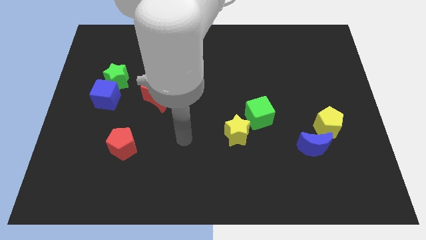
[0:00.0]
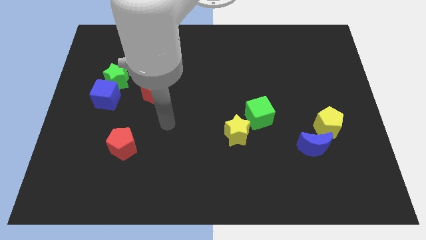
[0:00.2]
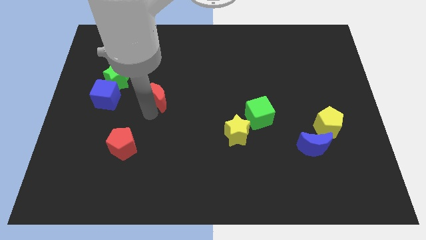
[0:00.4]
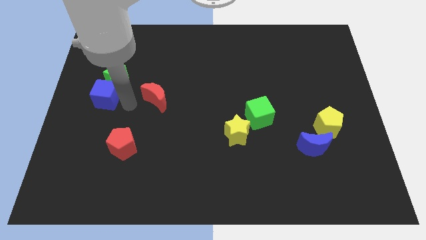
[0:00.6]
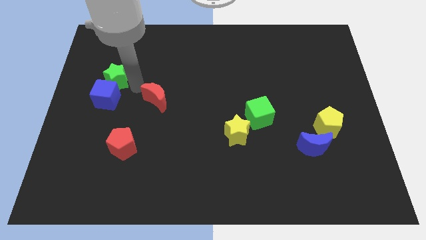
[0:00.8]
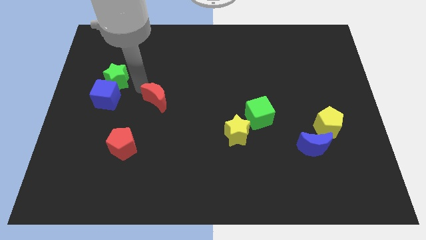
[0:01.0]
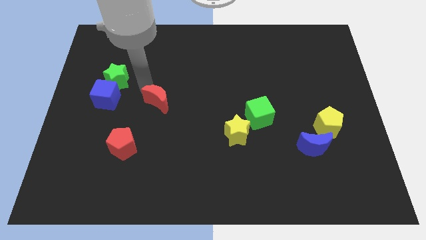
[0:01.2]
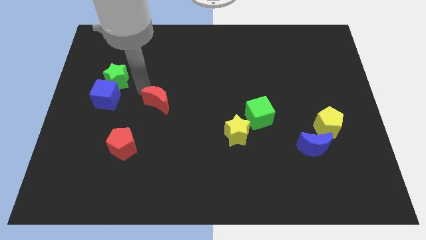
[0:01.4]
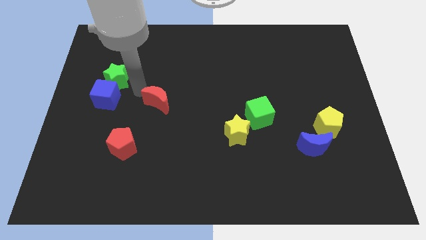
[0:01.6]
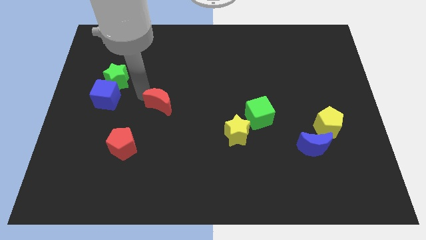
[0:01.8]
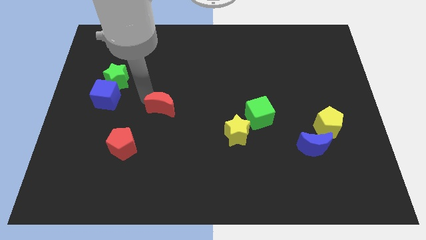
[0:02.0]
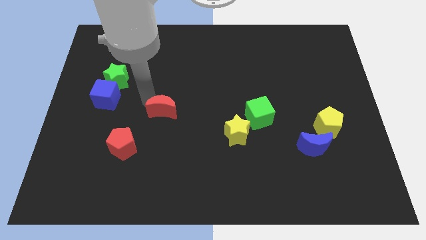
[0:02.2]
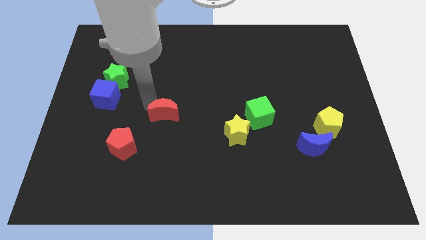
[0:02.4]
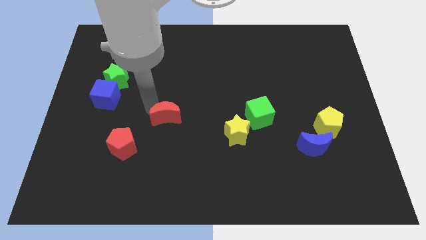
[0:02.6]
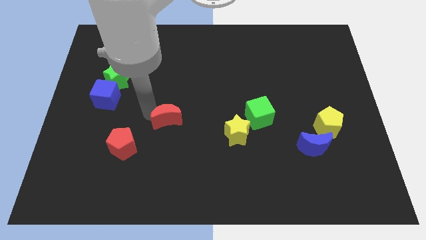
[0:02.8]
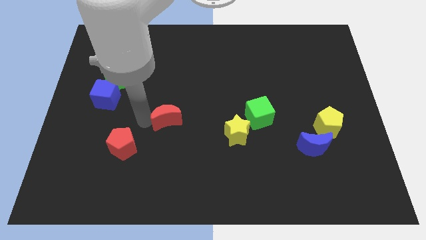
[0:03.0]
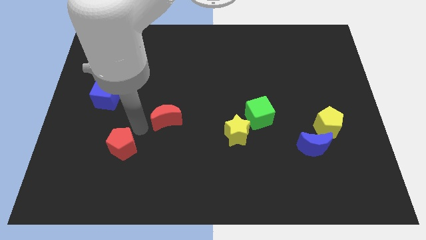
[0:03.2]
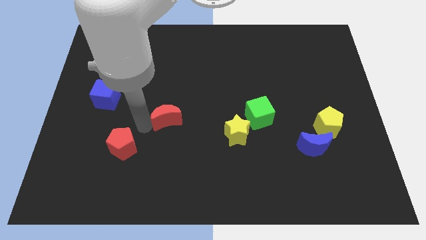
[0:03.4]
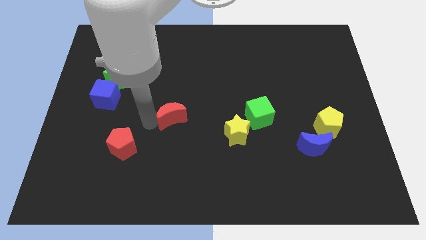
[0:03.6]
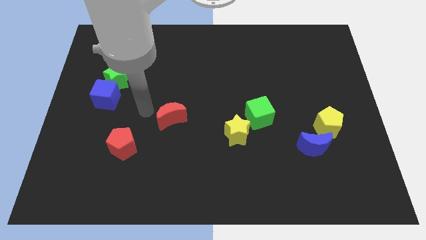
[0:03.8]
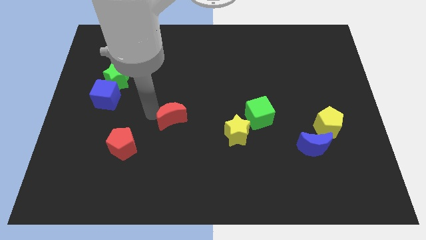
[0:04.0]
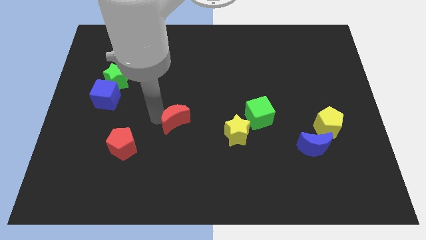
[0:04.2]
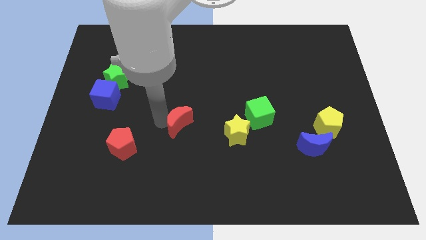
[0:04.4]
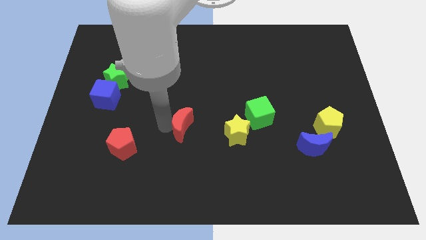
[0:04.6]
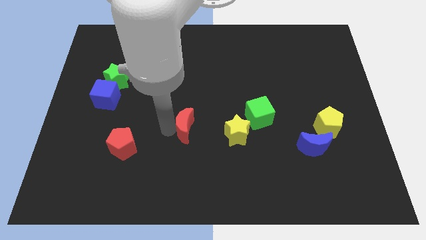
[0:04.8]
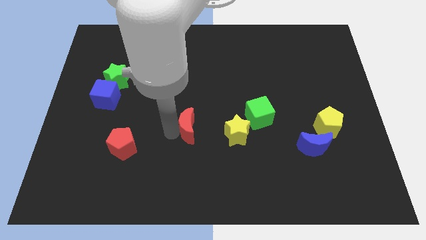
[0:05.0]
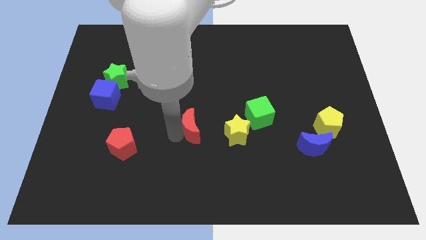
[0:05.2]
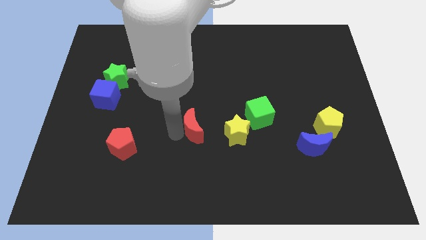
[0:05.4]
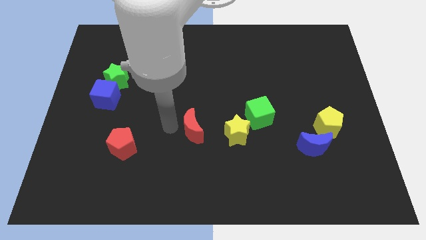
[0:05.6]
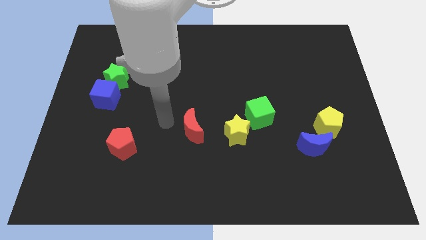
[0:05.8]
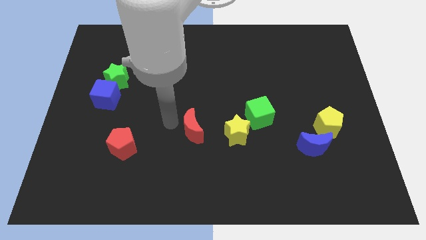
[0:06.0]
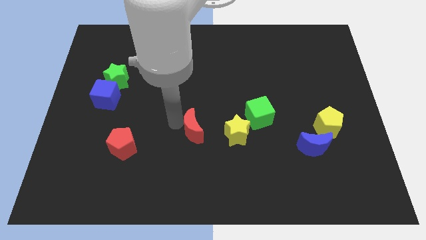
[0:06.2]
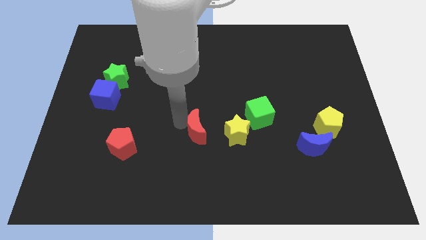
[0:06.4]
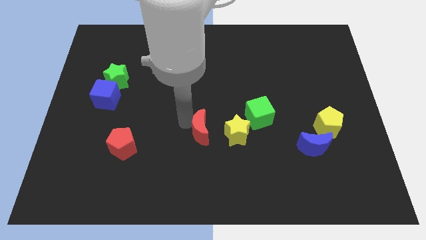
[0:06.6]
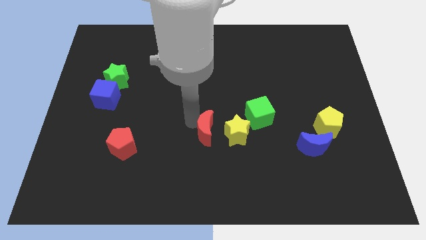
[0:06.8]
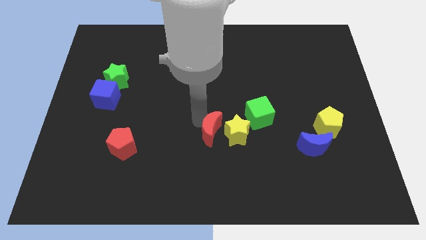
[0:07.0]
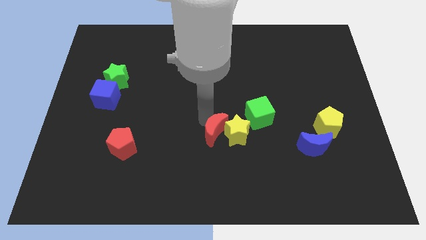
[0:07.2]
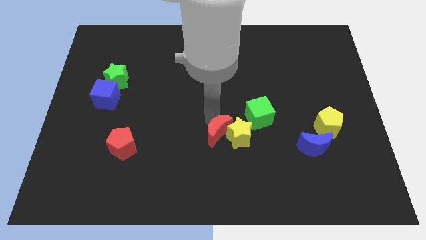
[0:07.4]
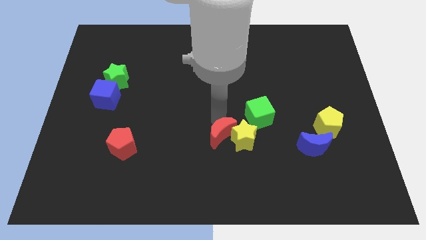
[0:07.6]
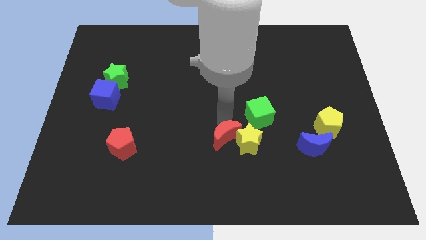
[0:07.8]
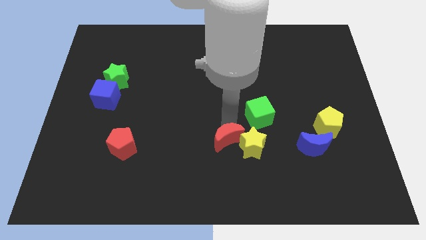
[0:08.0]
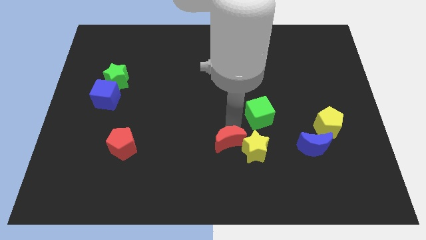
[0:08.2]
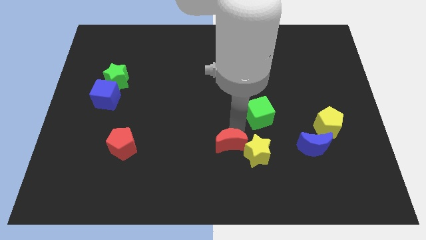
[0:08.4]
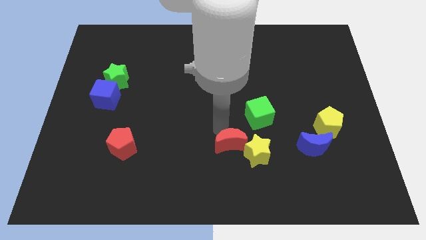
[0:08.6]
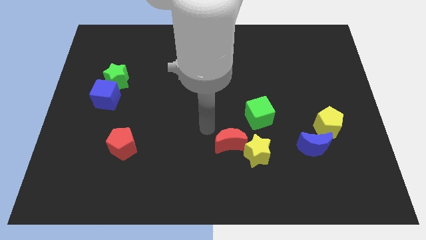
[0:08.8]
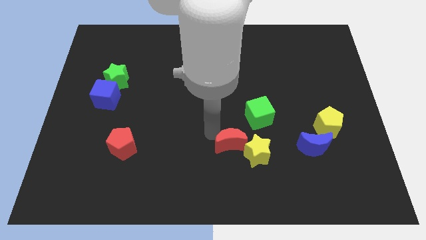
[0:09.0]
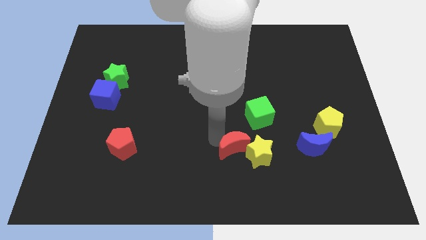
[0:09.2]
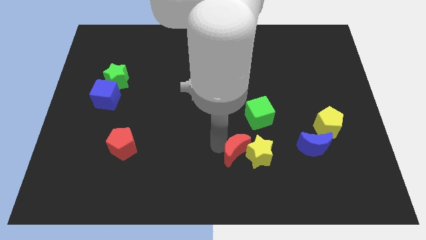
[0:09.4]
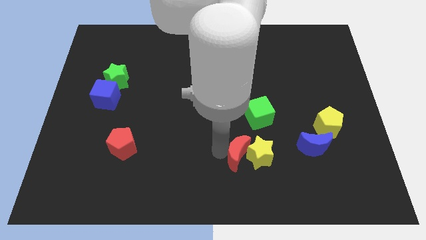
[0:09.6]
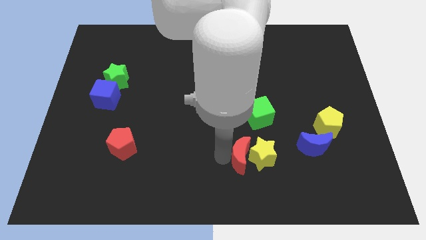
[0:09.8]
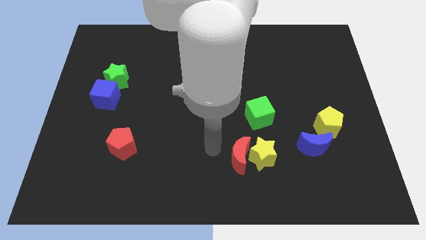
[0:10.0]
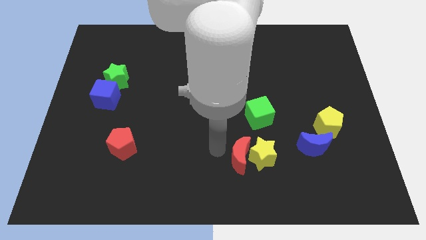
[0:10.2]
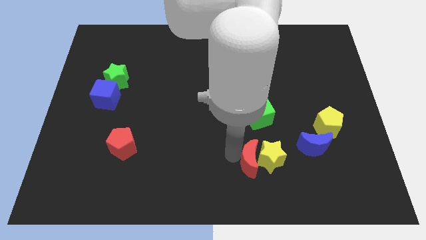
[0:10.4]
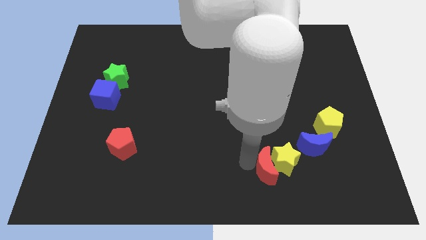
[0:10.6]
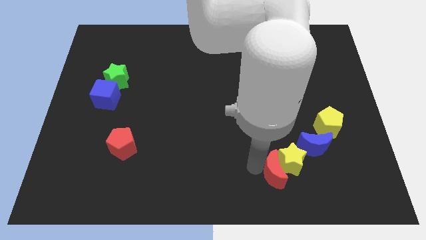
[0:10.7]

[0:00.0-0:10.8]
push the red moon diagonally down and to the left of the blue moon

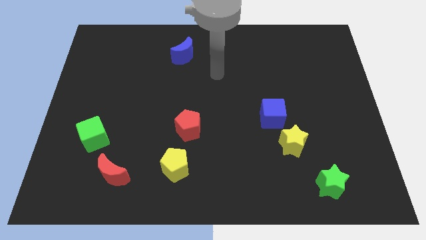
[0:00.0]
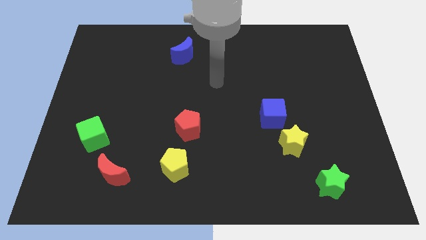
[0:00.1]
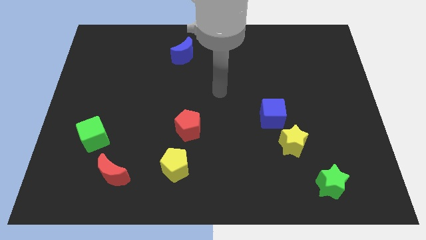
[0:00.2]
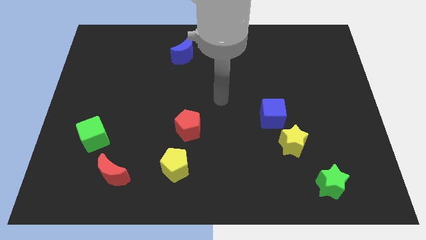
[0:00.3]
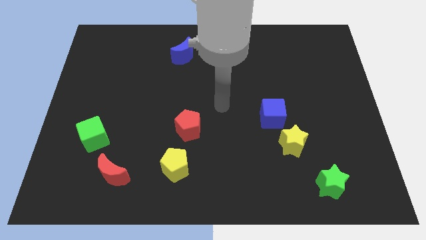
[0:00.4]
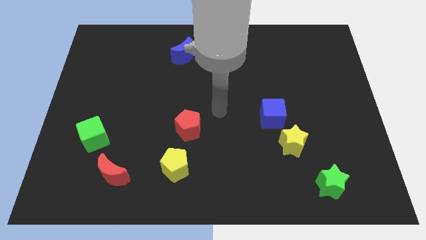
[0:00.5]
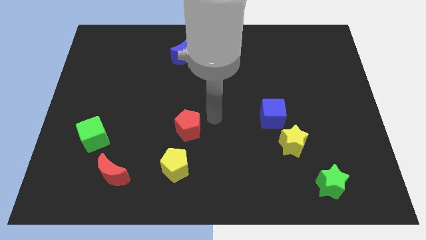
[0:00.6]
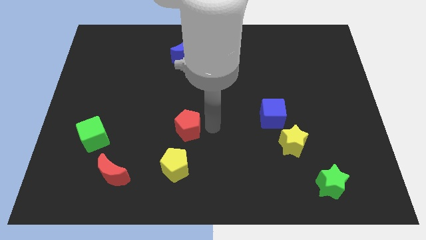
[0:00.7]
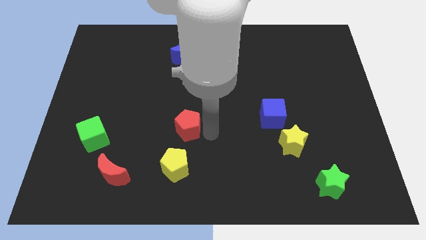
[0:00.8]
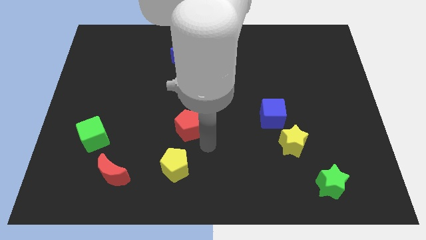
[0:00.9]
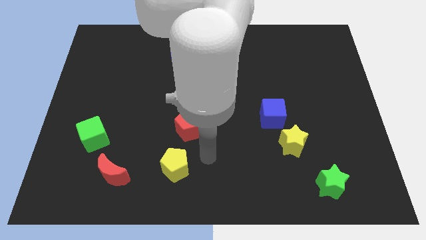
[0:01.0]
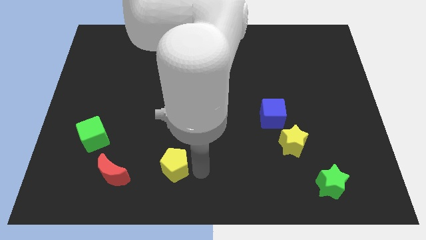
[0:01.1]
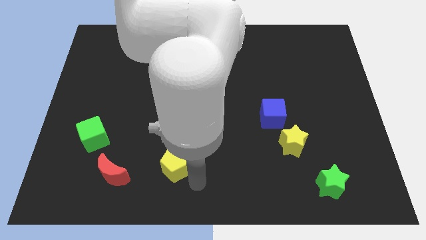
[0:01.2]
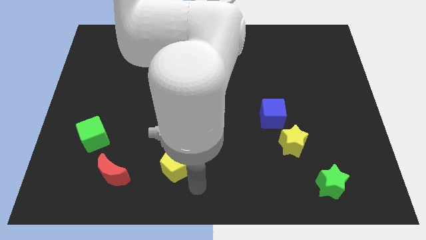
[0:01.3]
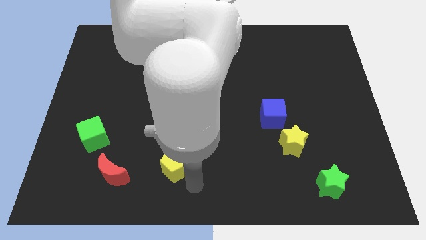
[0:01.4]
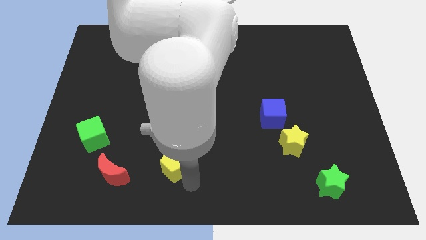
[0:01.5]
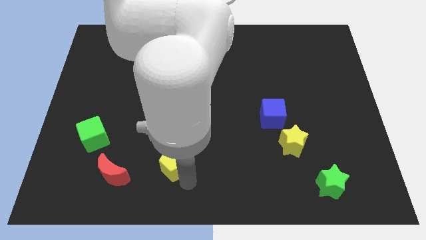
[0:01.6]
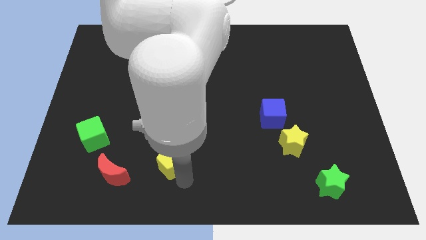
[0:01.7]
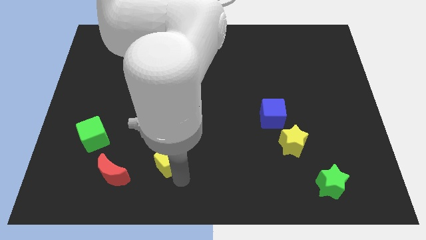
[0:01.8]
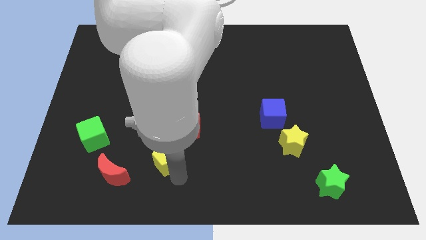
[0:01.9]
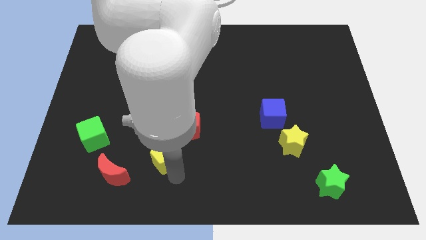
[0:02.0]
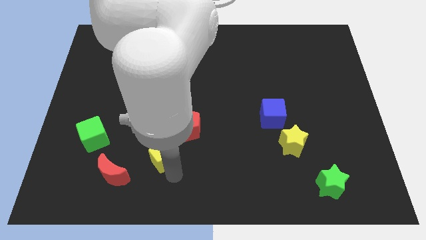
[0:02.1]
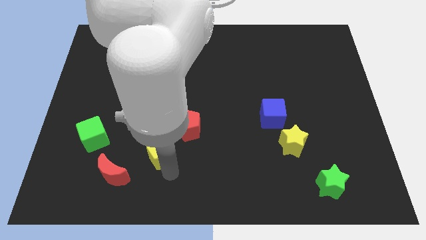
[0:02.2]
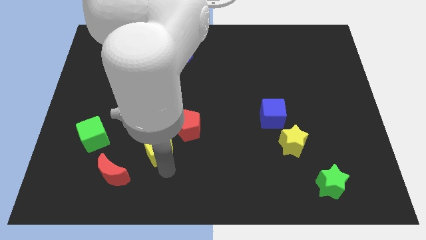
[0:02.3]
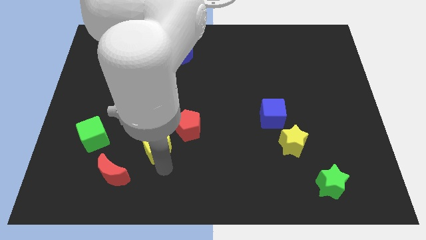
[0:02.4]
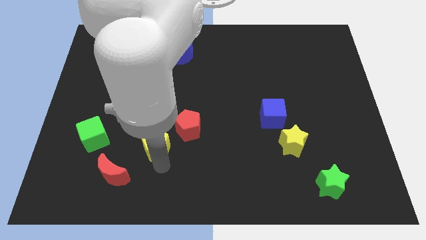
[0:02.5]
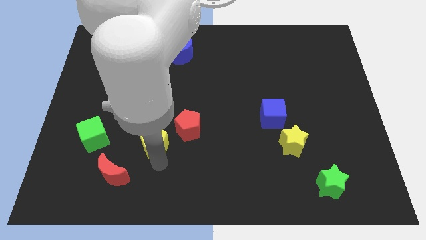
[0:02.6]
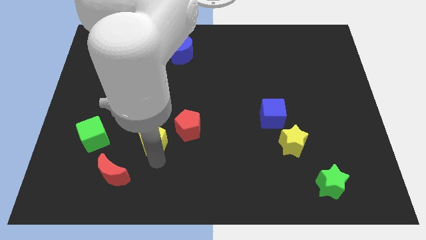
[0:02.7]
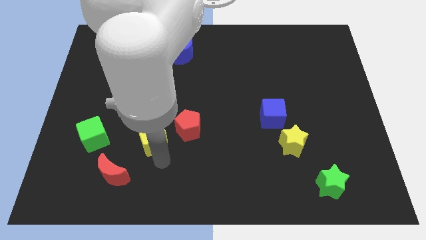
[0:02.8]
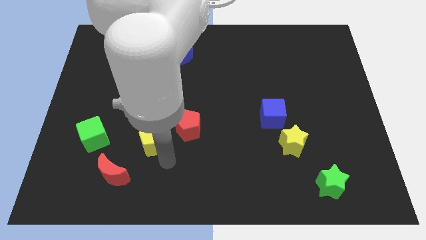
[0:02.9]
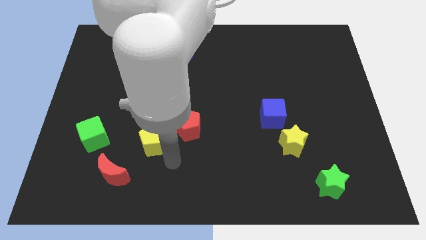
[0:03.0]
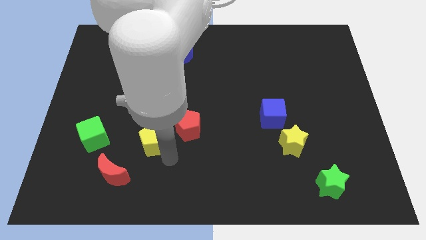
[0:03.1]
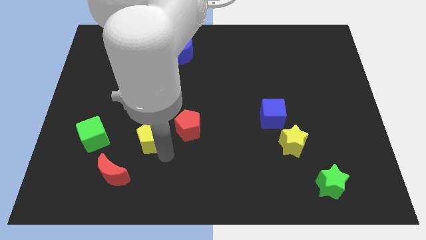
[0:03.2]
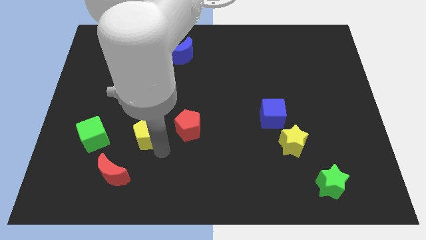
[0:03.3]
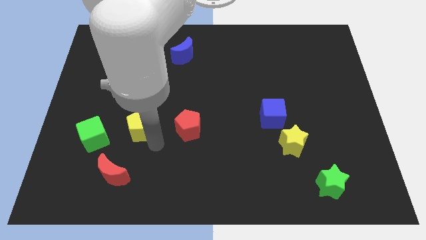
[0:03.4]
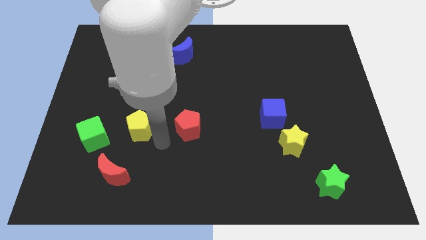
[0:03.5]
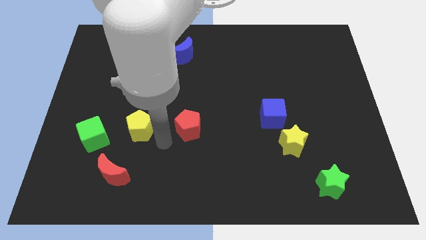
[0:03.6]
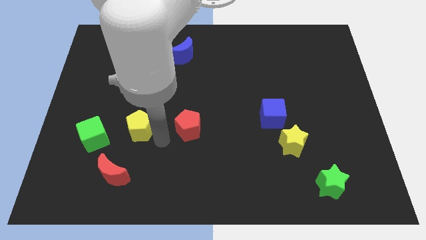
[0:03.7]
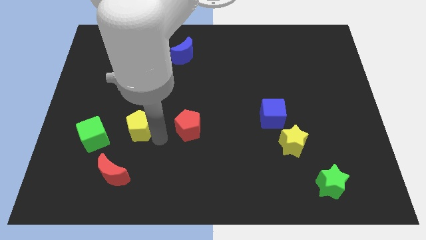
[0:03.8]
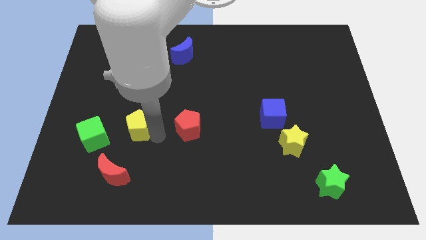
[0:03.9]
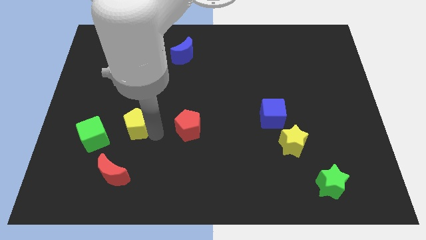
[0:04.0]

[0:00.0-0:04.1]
put the yellow pentagon to the top right side of the green cube
